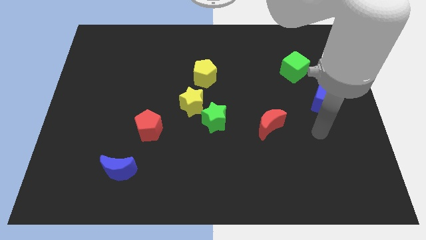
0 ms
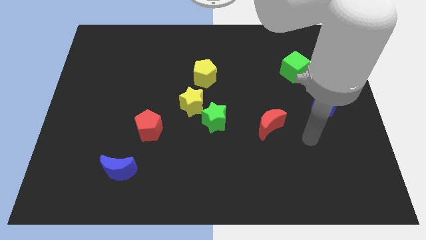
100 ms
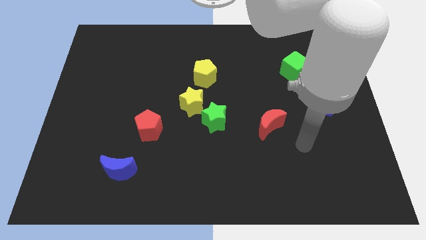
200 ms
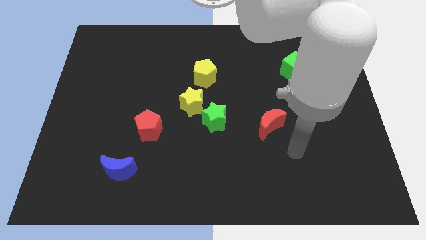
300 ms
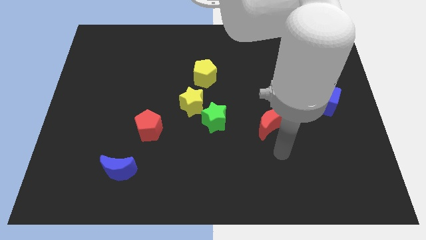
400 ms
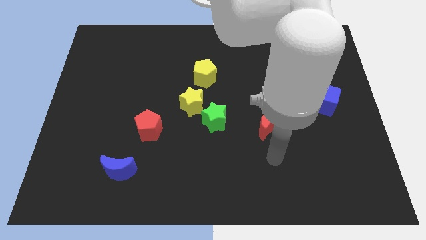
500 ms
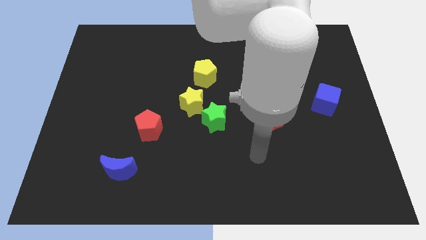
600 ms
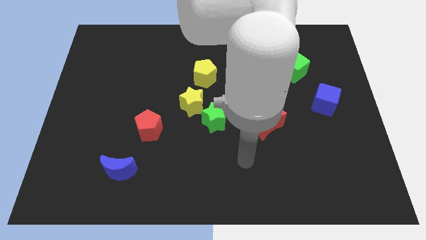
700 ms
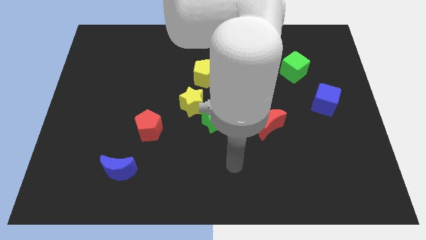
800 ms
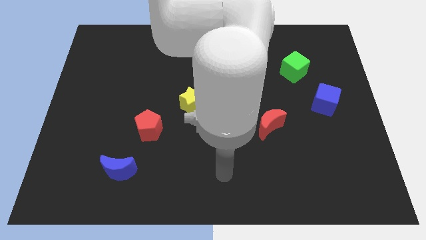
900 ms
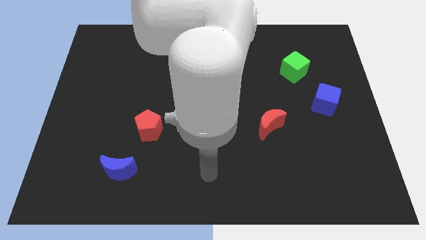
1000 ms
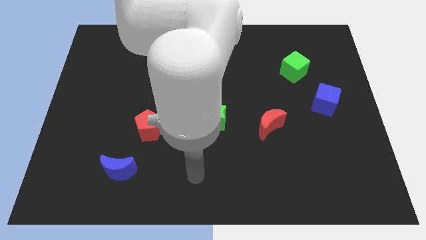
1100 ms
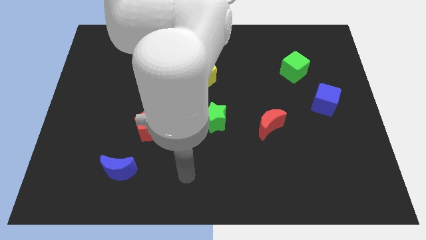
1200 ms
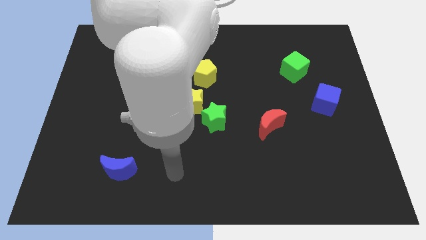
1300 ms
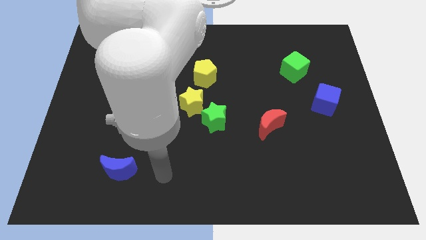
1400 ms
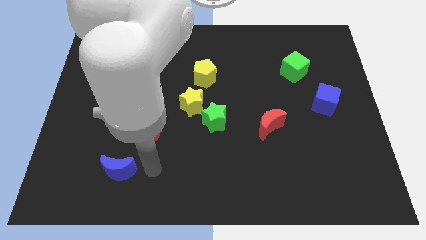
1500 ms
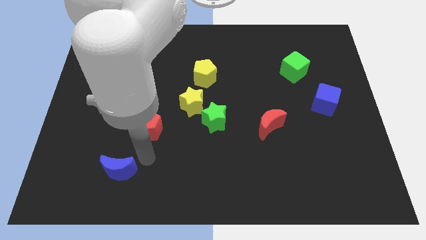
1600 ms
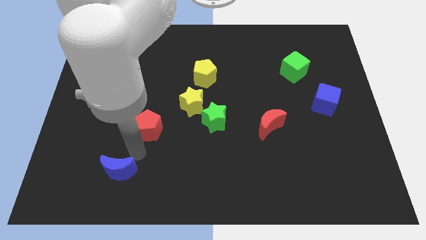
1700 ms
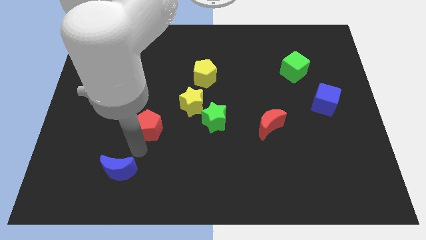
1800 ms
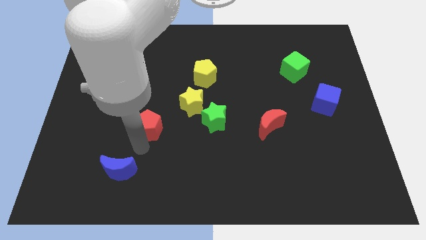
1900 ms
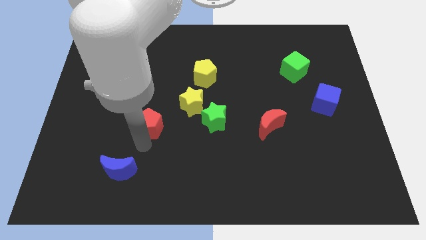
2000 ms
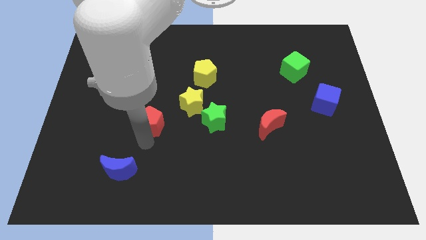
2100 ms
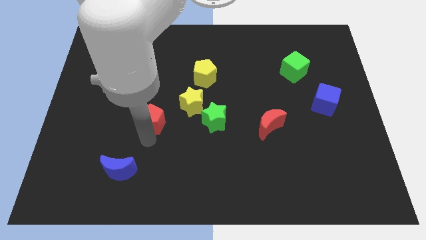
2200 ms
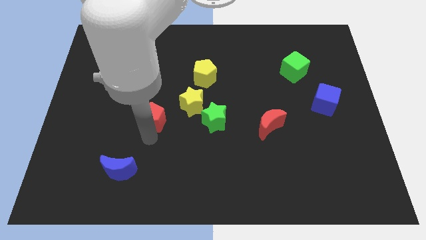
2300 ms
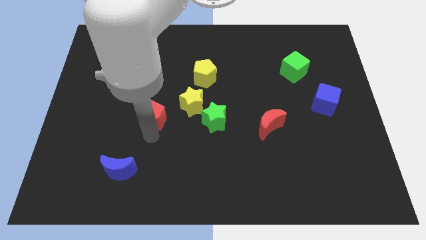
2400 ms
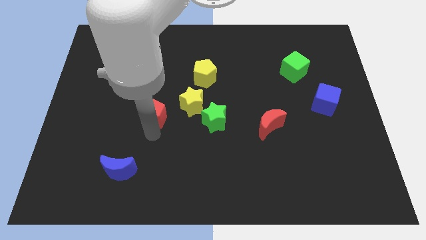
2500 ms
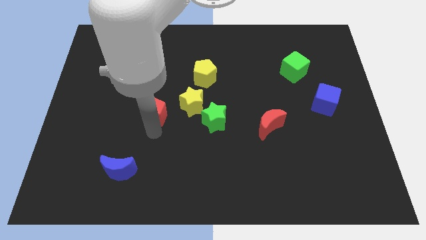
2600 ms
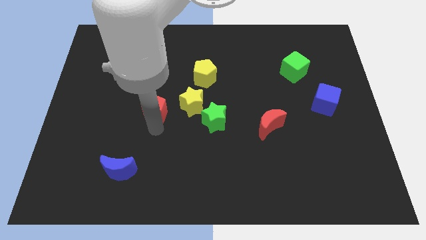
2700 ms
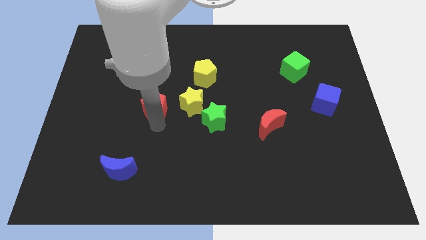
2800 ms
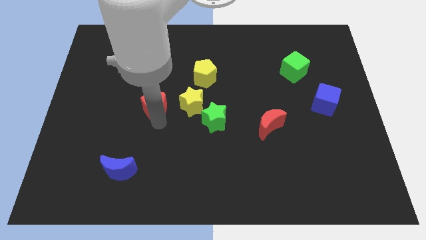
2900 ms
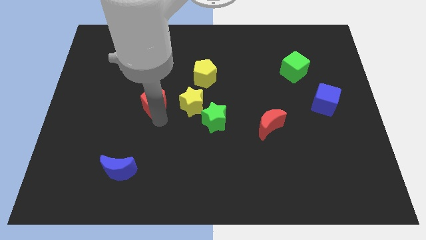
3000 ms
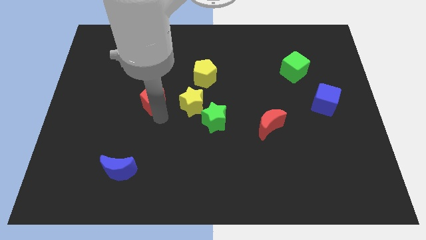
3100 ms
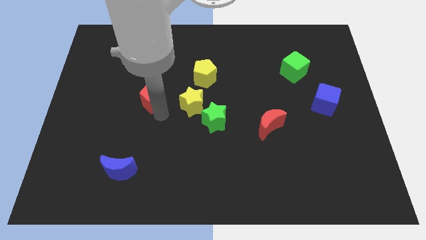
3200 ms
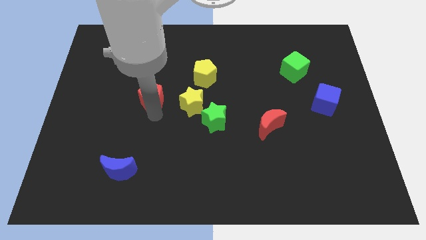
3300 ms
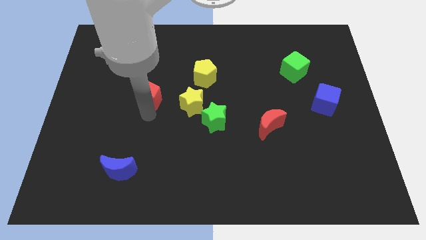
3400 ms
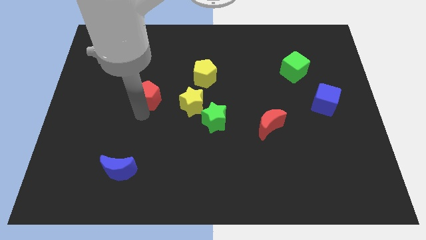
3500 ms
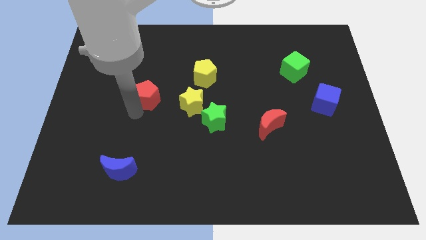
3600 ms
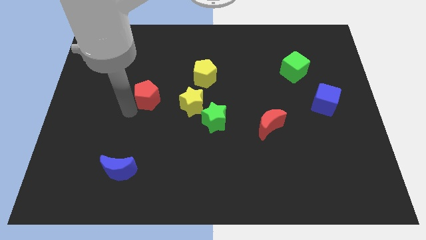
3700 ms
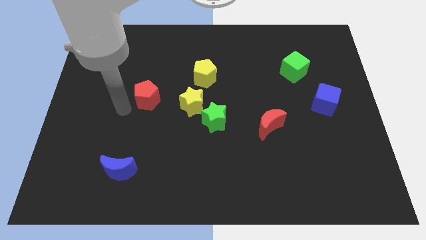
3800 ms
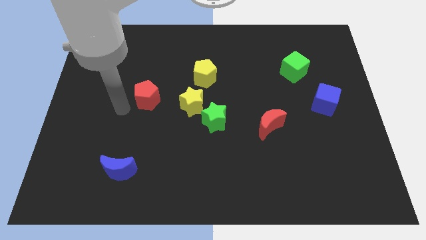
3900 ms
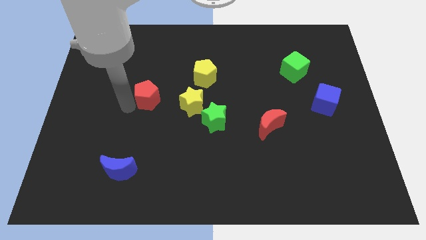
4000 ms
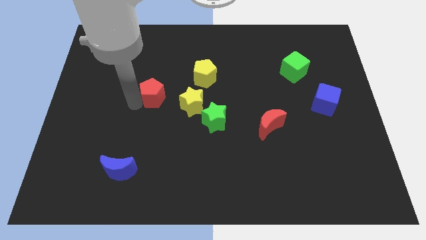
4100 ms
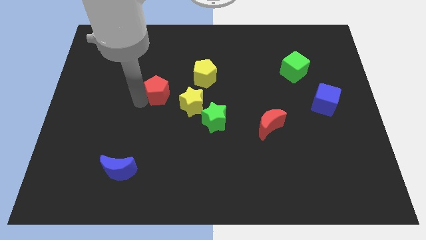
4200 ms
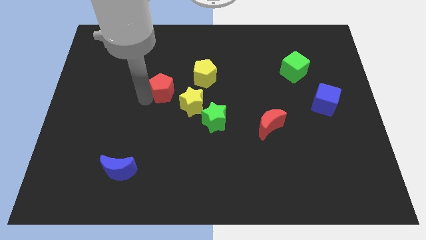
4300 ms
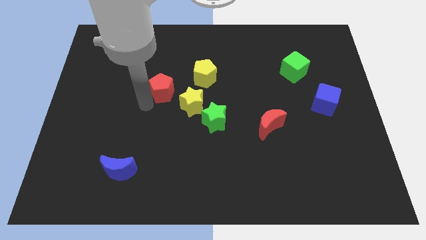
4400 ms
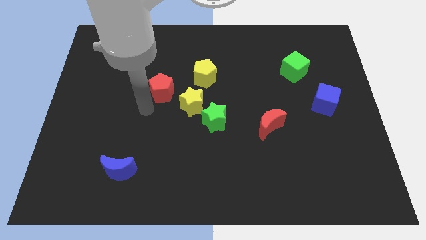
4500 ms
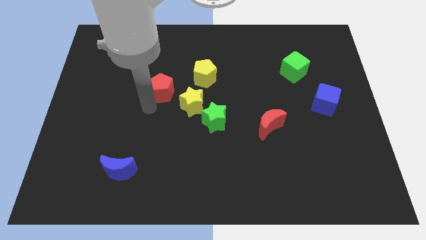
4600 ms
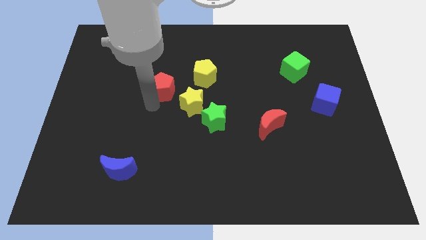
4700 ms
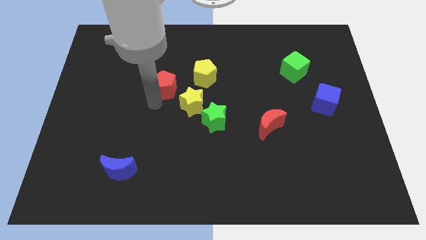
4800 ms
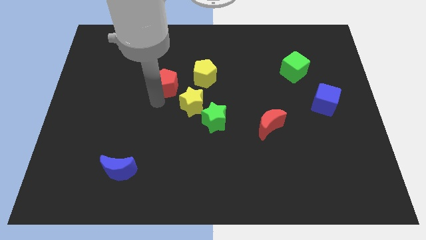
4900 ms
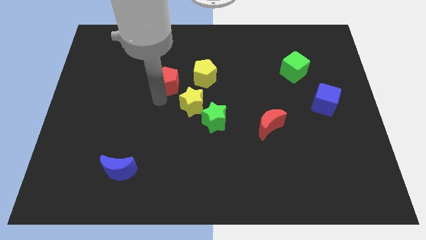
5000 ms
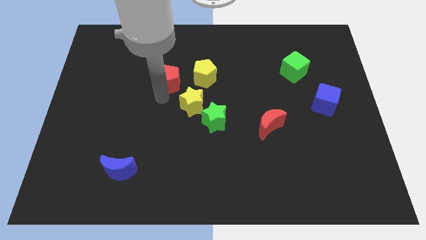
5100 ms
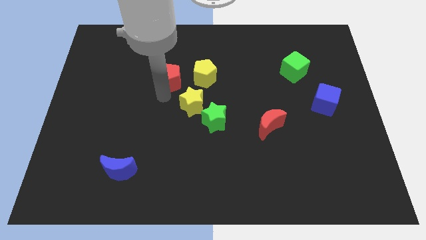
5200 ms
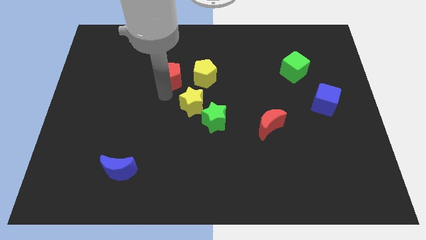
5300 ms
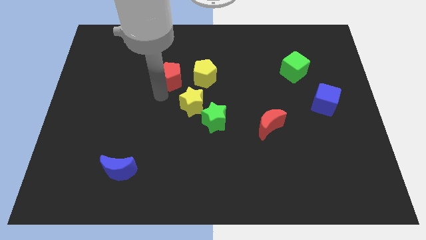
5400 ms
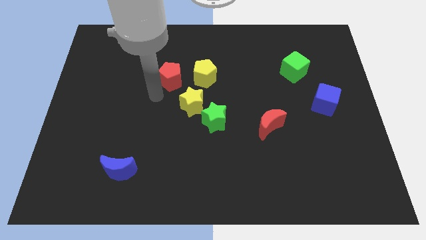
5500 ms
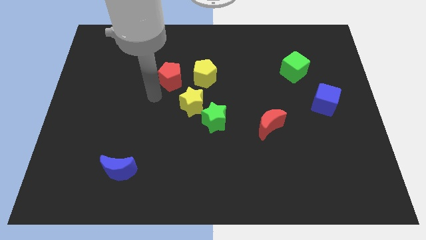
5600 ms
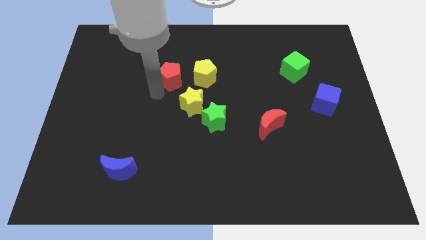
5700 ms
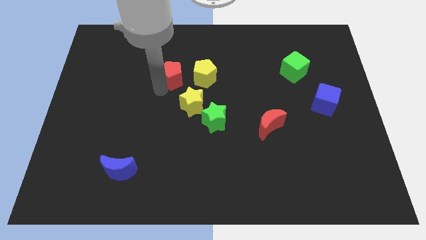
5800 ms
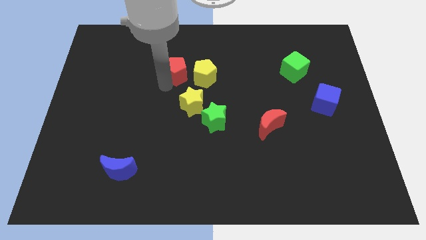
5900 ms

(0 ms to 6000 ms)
move the red pentagon to the top left of the yellow pentagon

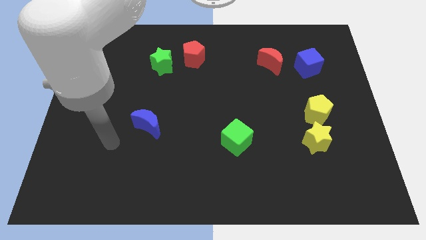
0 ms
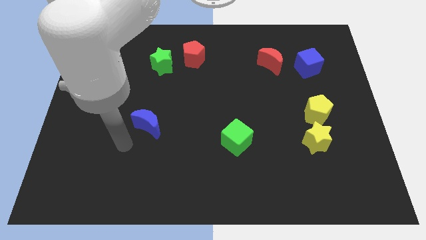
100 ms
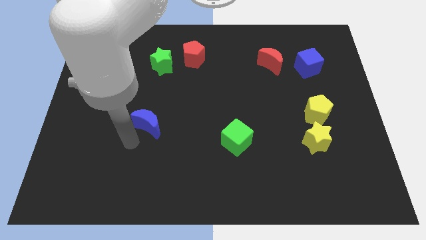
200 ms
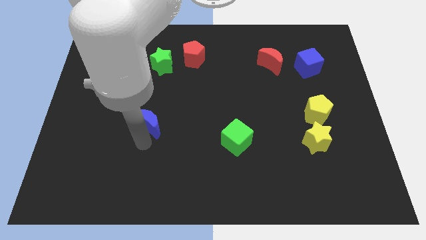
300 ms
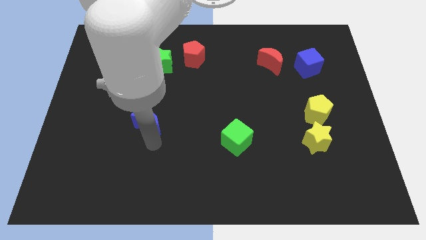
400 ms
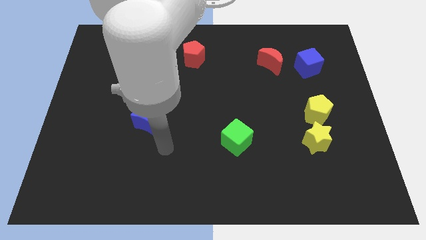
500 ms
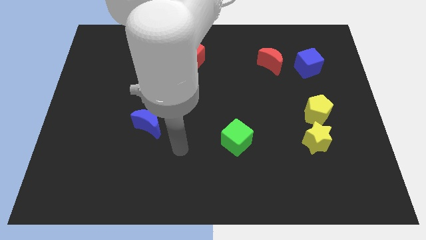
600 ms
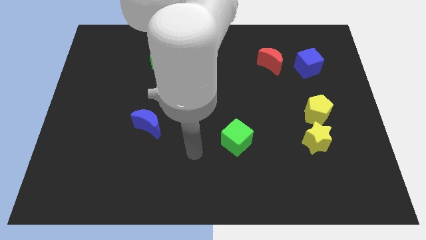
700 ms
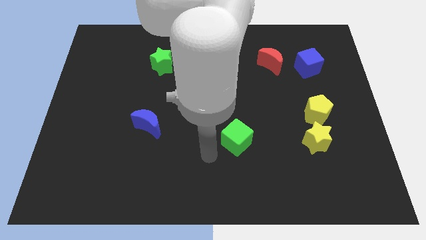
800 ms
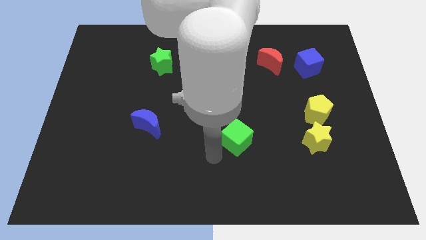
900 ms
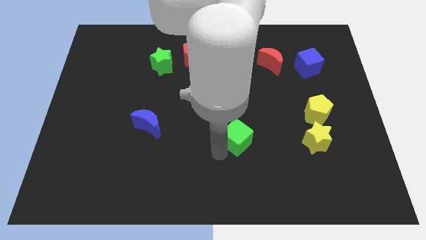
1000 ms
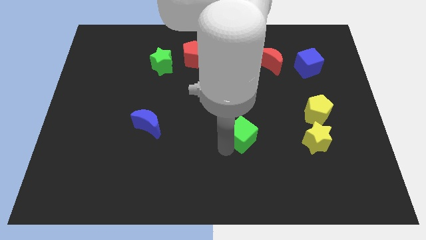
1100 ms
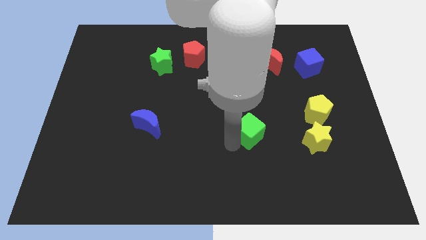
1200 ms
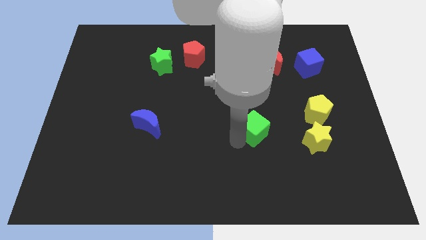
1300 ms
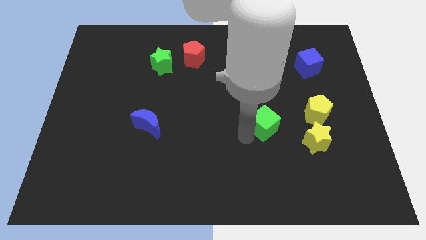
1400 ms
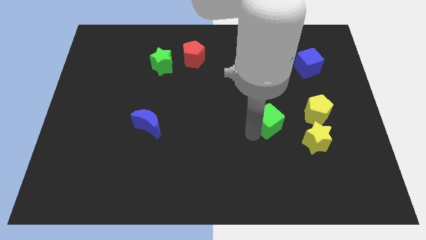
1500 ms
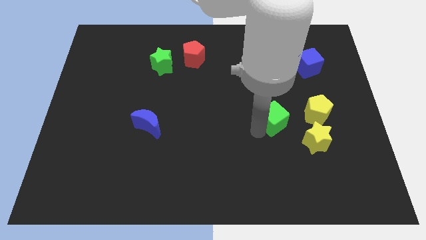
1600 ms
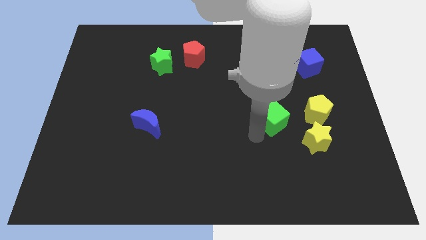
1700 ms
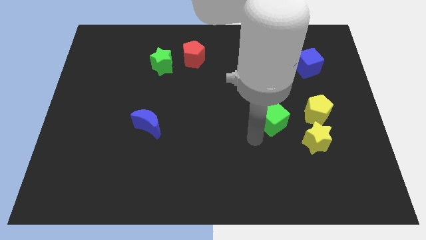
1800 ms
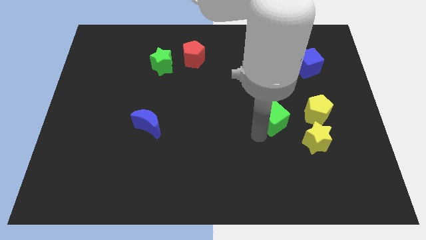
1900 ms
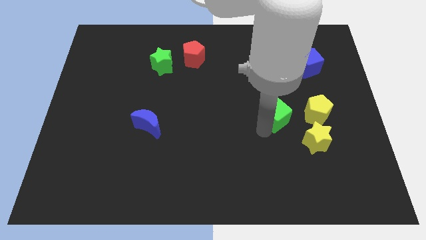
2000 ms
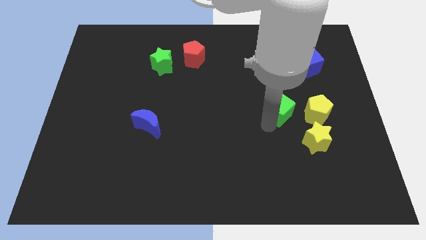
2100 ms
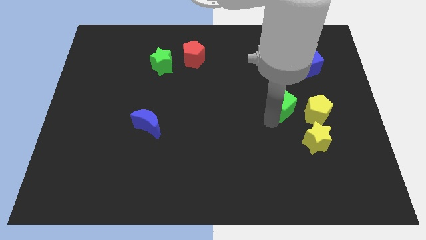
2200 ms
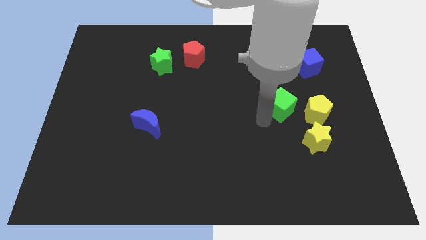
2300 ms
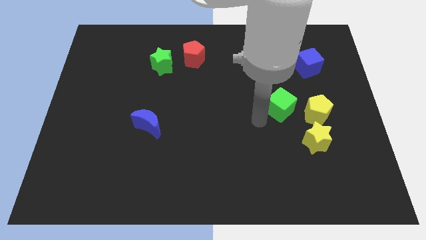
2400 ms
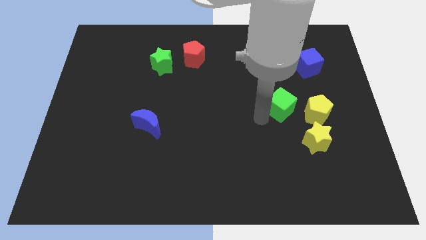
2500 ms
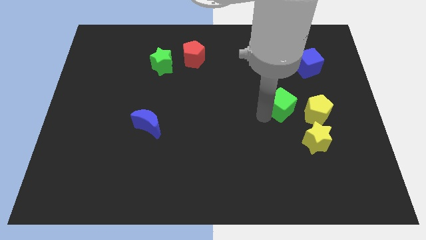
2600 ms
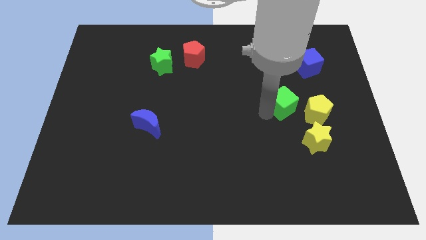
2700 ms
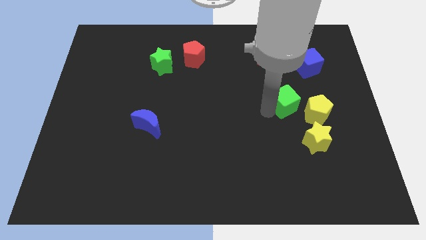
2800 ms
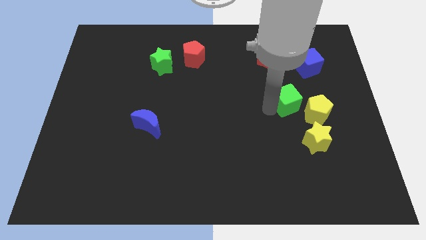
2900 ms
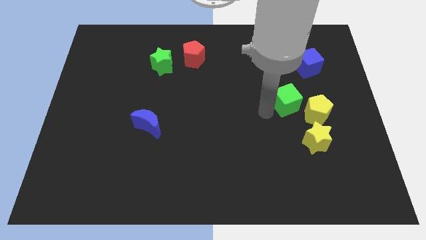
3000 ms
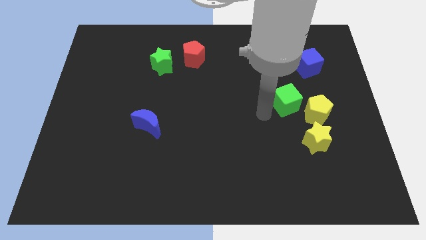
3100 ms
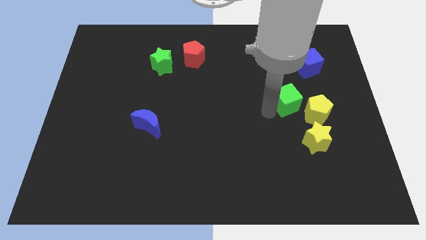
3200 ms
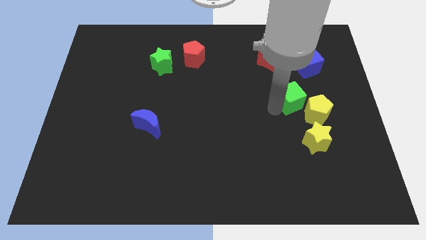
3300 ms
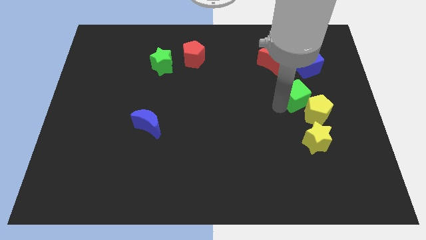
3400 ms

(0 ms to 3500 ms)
move the green cube to the top of the yellow pentagon
